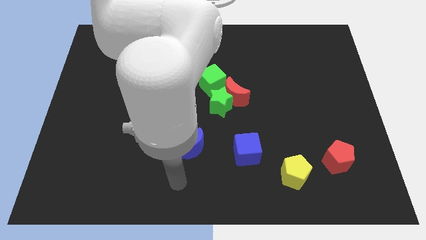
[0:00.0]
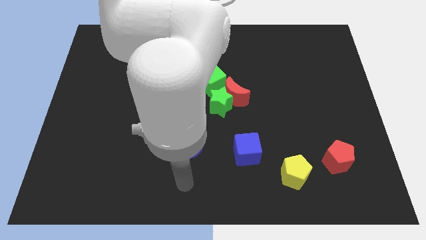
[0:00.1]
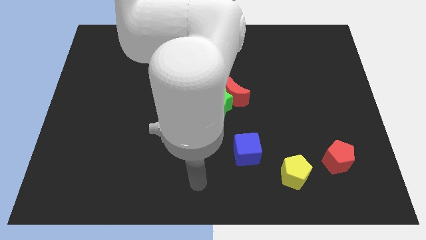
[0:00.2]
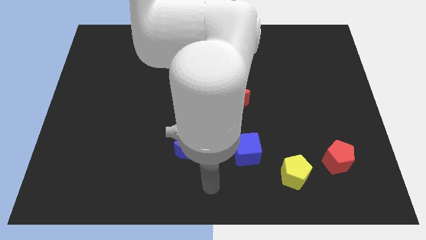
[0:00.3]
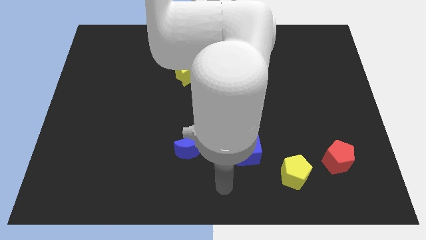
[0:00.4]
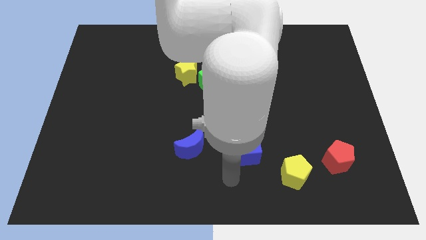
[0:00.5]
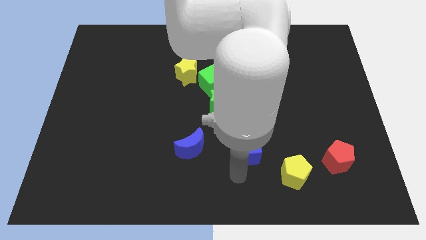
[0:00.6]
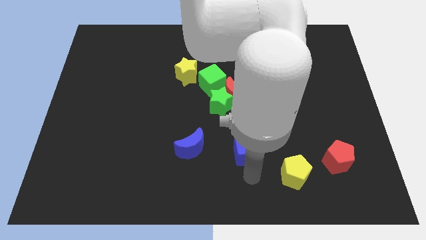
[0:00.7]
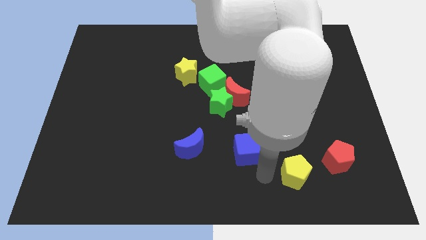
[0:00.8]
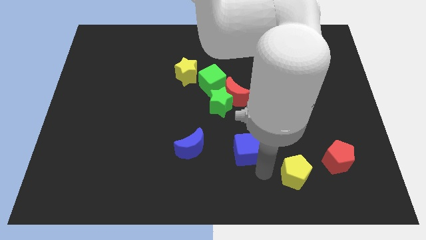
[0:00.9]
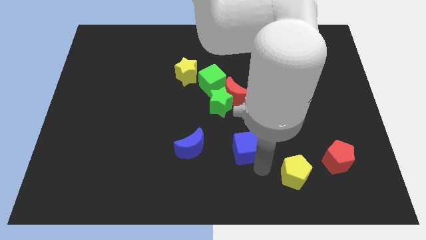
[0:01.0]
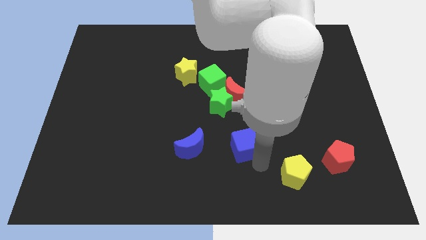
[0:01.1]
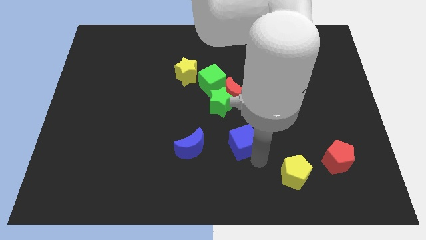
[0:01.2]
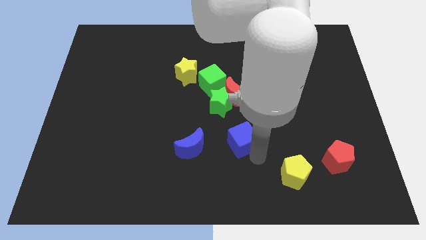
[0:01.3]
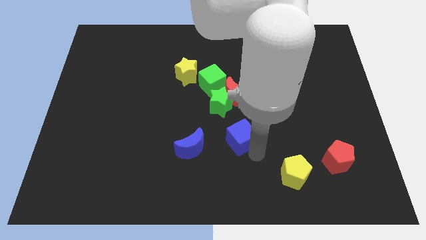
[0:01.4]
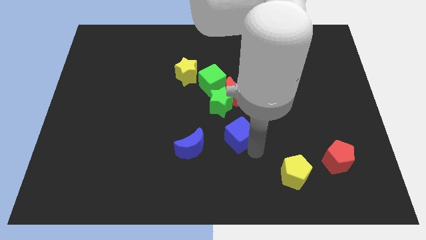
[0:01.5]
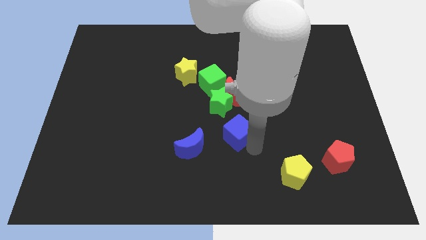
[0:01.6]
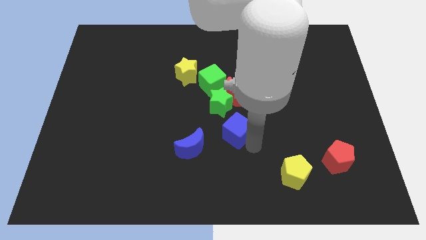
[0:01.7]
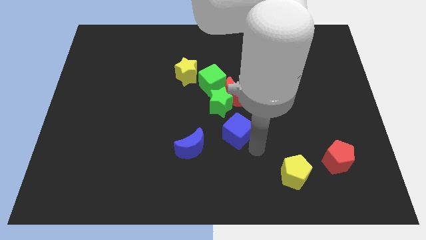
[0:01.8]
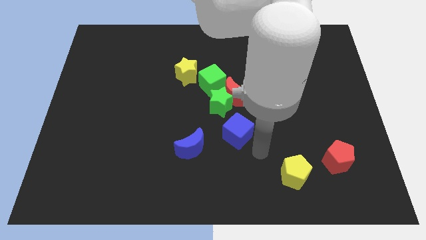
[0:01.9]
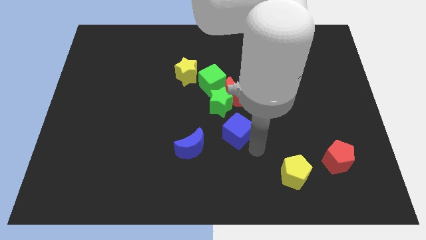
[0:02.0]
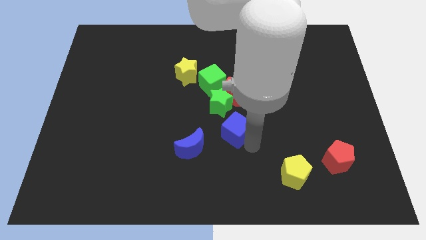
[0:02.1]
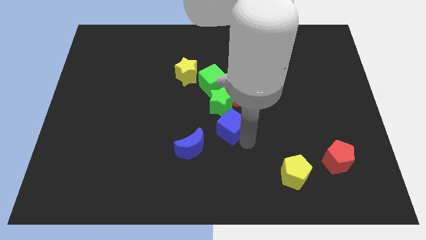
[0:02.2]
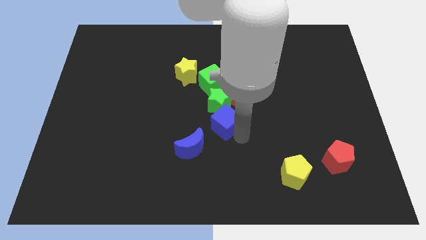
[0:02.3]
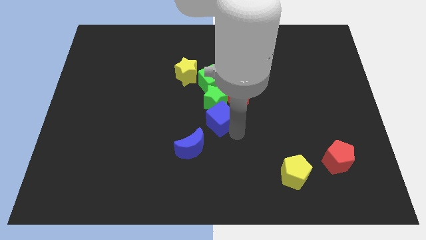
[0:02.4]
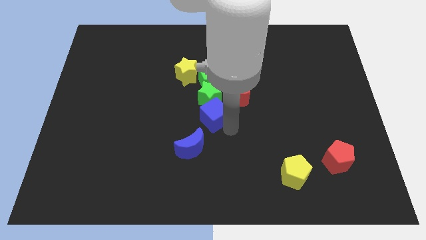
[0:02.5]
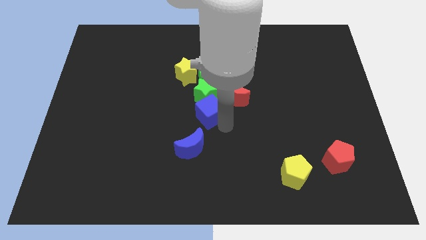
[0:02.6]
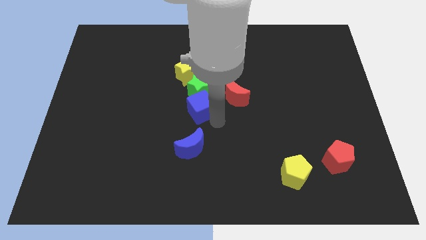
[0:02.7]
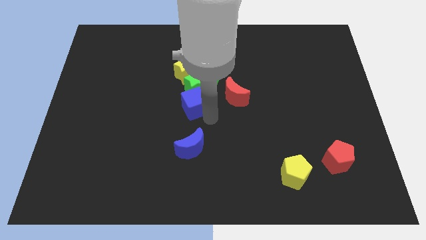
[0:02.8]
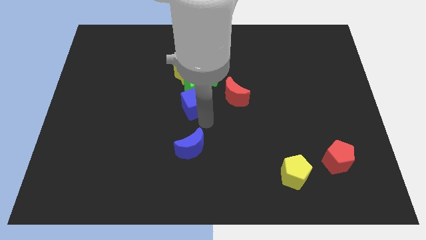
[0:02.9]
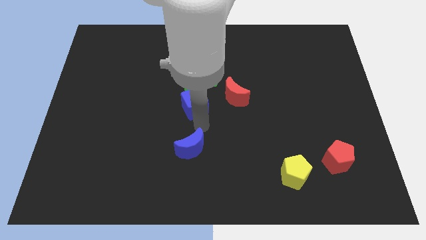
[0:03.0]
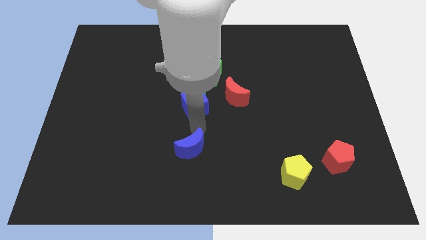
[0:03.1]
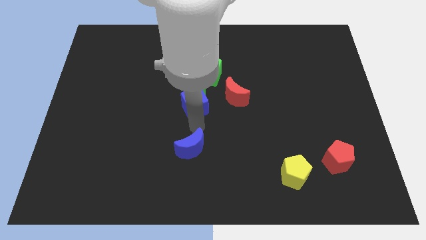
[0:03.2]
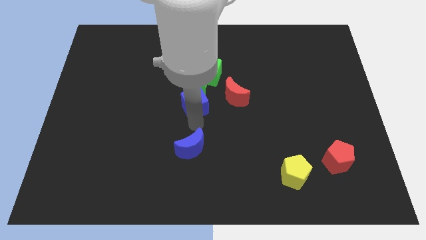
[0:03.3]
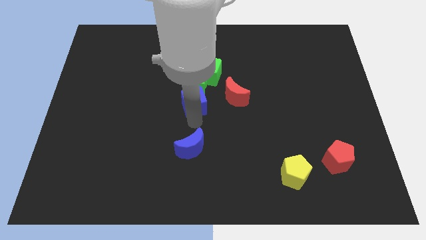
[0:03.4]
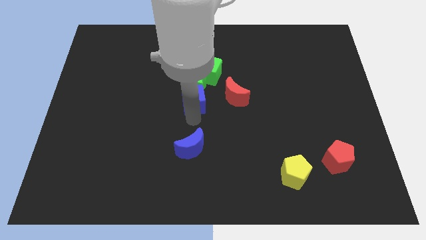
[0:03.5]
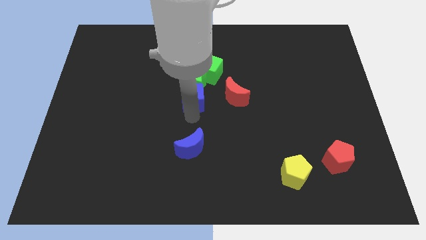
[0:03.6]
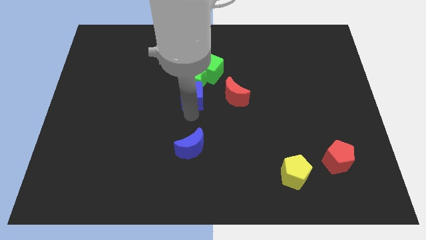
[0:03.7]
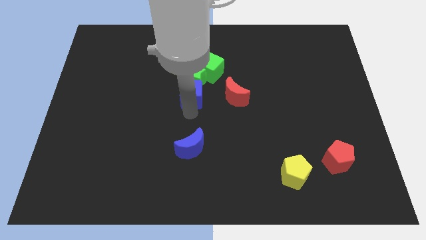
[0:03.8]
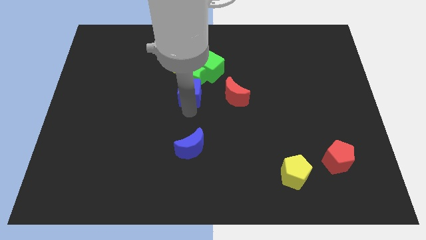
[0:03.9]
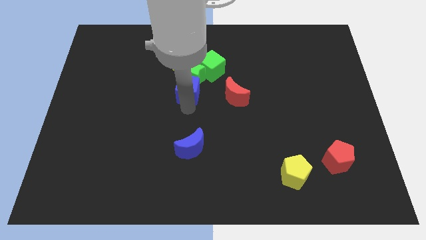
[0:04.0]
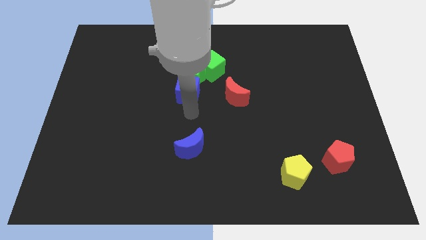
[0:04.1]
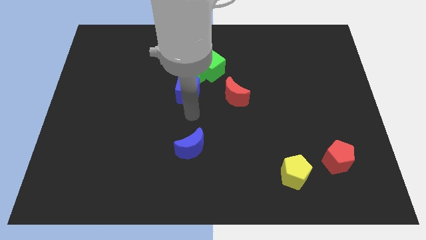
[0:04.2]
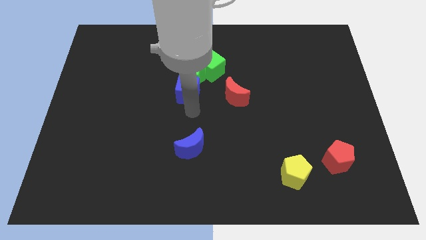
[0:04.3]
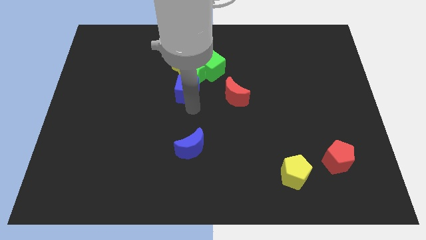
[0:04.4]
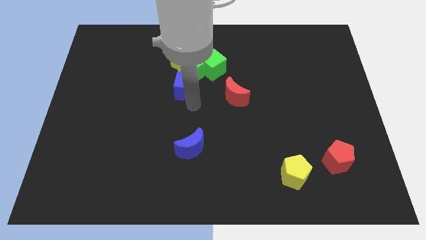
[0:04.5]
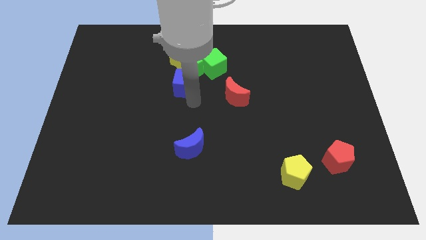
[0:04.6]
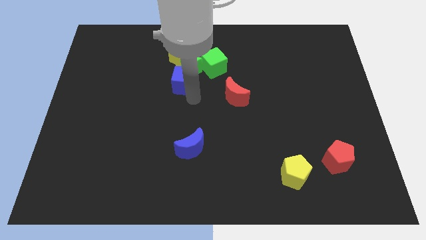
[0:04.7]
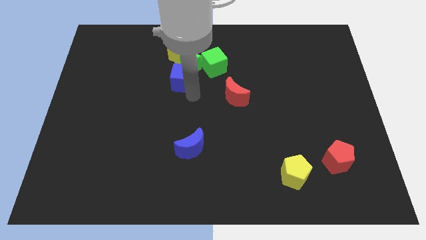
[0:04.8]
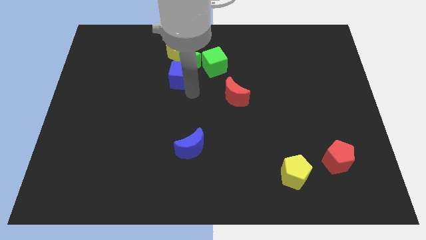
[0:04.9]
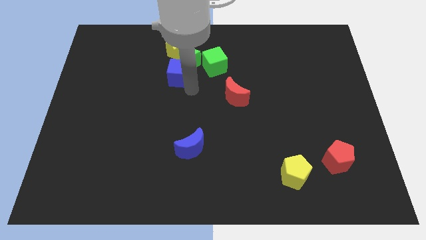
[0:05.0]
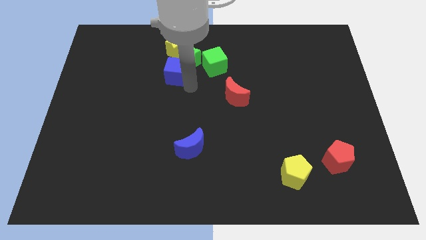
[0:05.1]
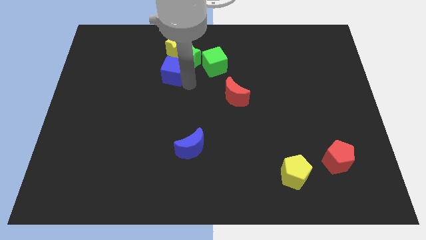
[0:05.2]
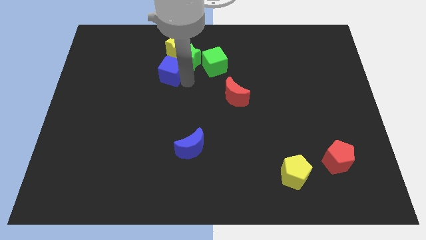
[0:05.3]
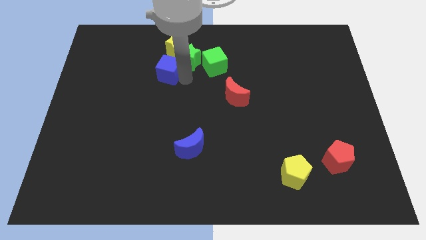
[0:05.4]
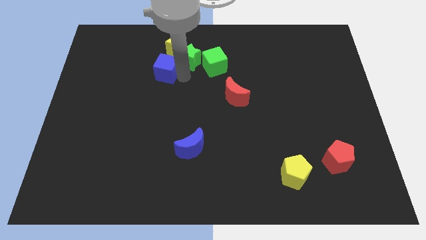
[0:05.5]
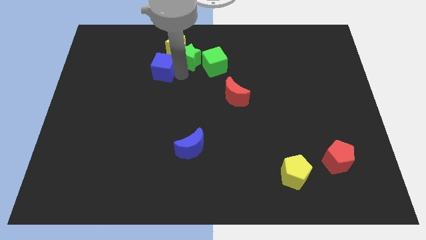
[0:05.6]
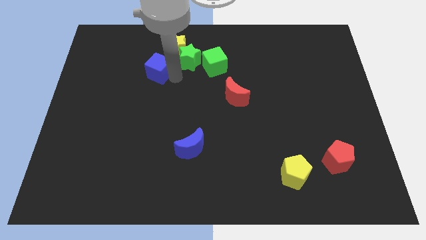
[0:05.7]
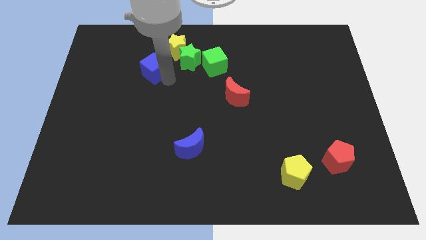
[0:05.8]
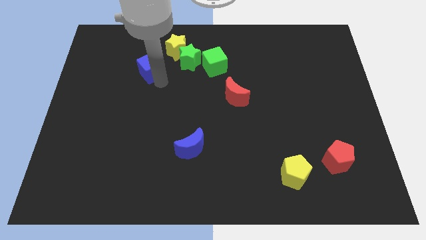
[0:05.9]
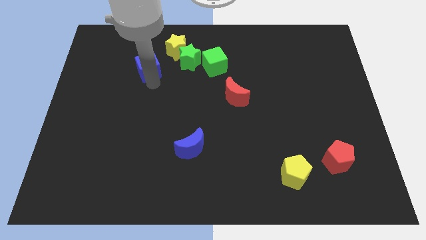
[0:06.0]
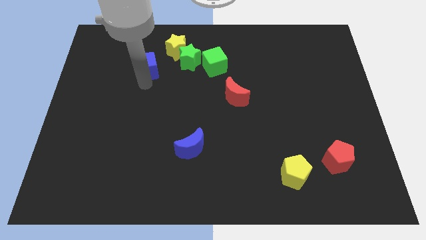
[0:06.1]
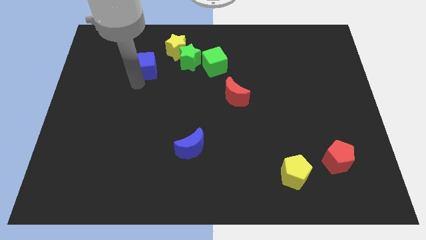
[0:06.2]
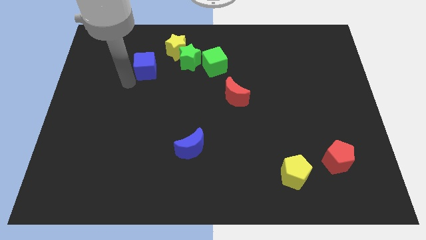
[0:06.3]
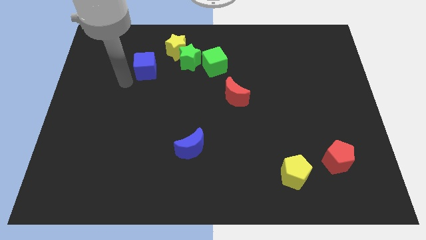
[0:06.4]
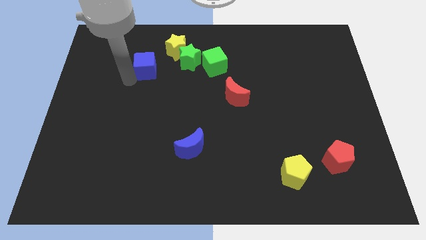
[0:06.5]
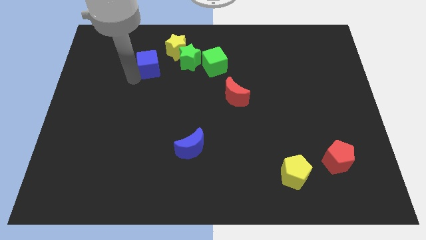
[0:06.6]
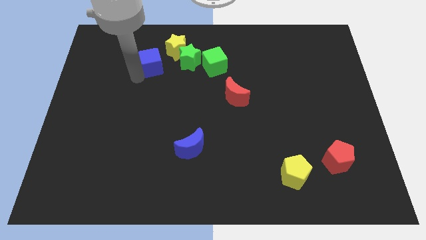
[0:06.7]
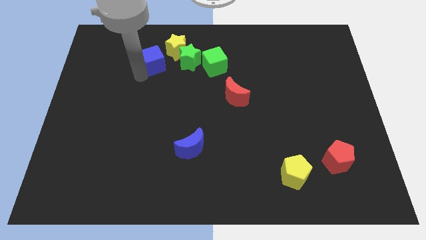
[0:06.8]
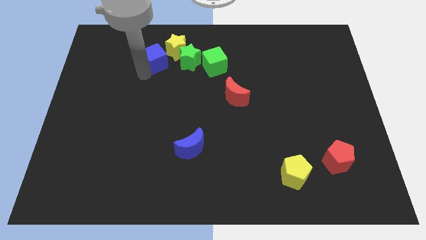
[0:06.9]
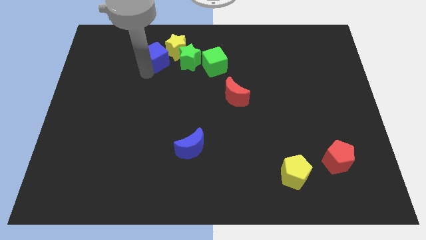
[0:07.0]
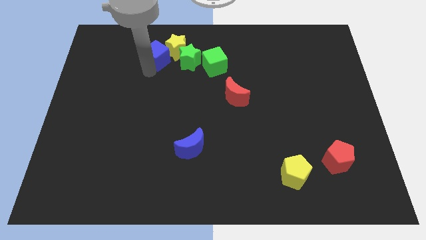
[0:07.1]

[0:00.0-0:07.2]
put the blue cube close to the yellow star

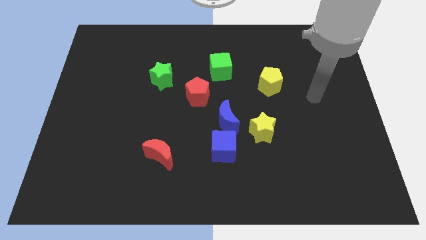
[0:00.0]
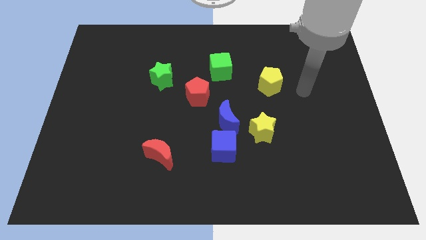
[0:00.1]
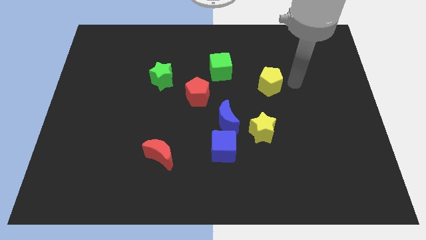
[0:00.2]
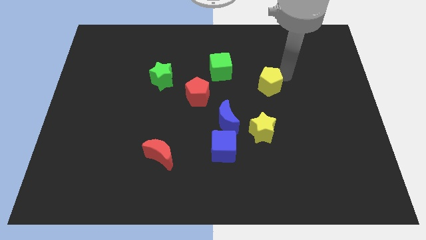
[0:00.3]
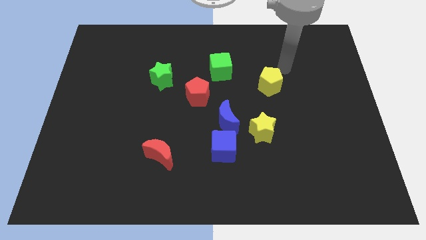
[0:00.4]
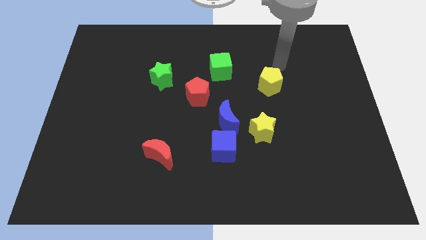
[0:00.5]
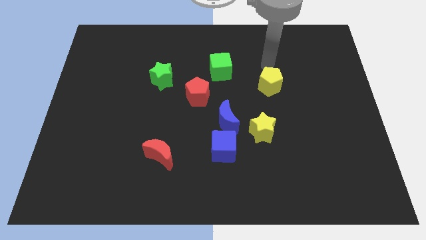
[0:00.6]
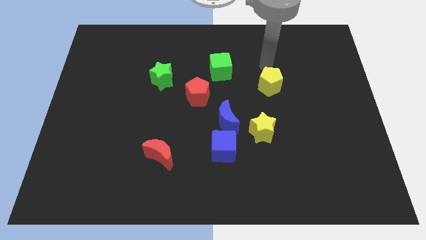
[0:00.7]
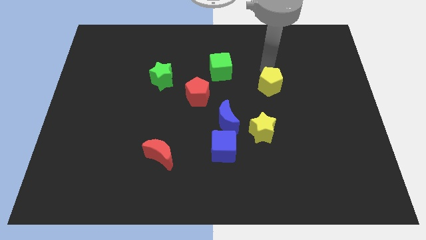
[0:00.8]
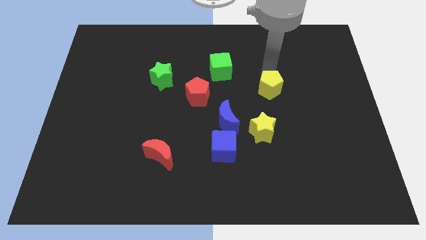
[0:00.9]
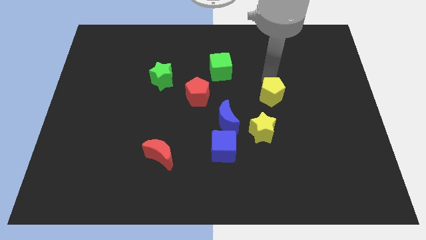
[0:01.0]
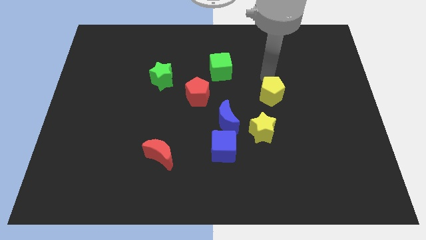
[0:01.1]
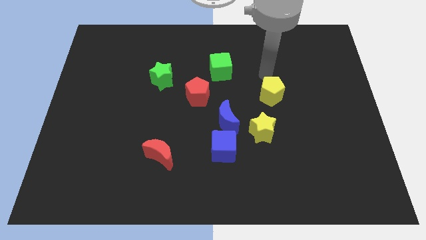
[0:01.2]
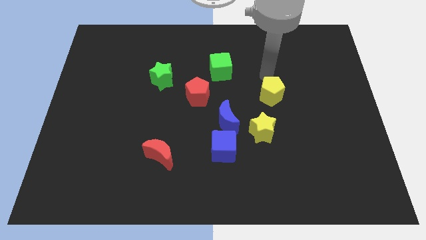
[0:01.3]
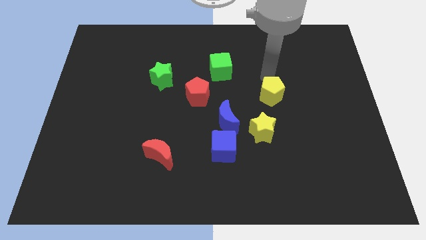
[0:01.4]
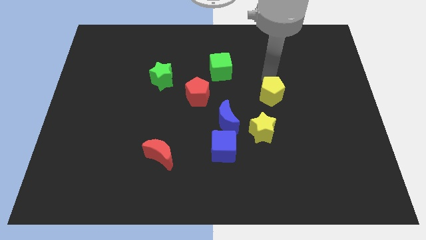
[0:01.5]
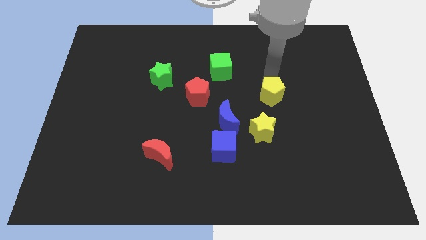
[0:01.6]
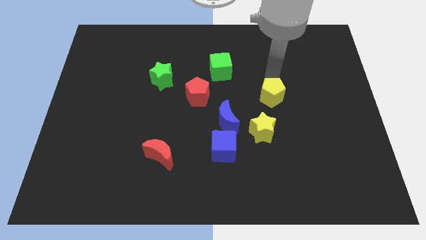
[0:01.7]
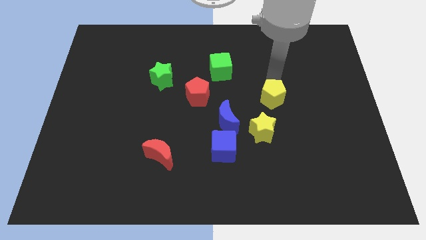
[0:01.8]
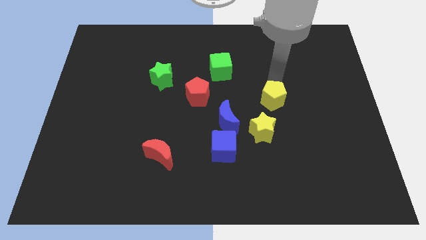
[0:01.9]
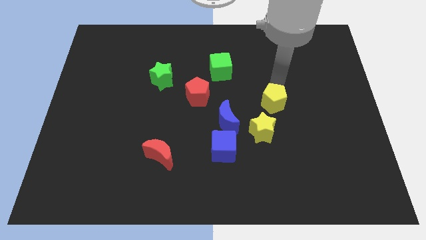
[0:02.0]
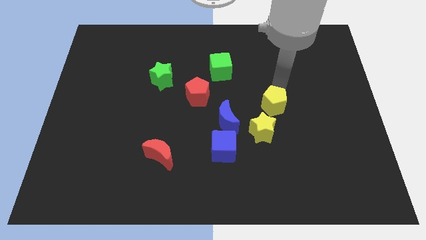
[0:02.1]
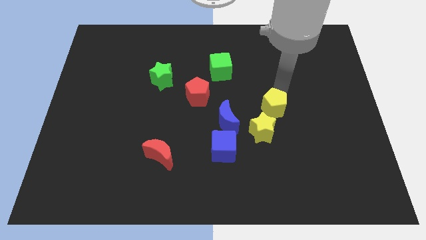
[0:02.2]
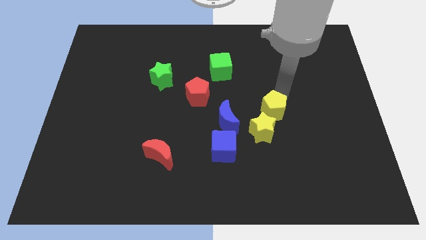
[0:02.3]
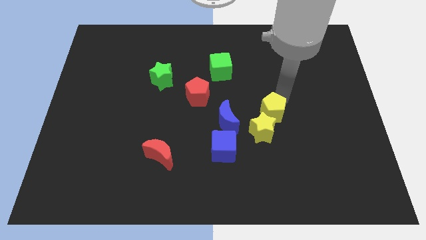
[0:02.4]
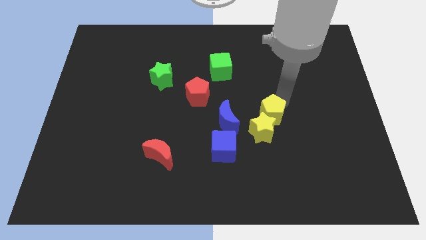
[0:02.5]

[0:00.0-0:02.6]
put the yellow pentagon to the yellow star
